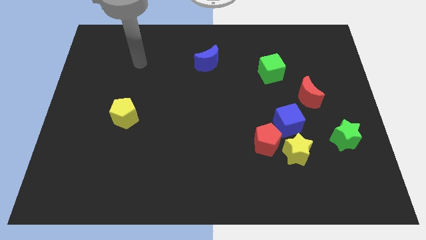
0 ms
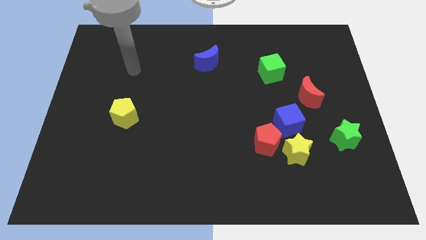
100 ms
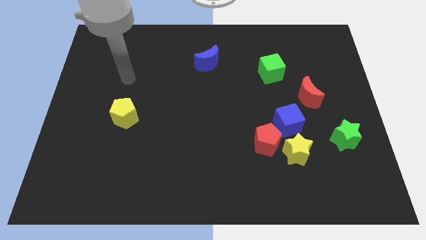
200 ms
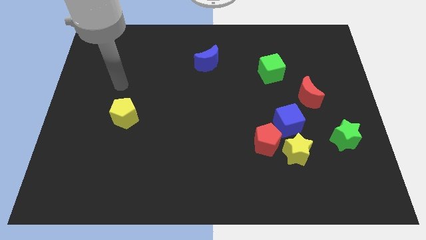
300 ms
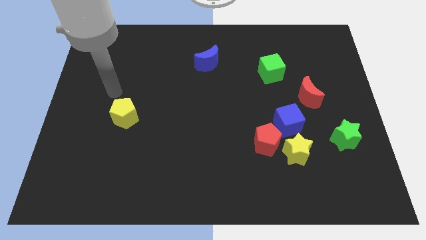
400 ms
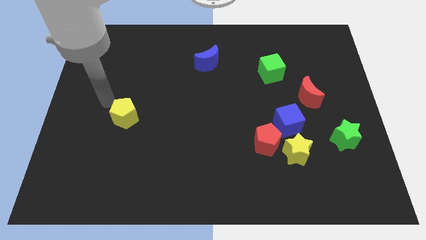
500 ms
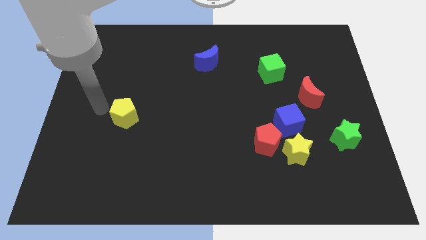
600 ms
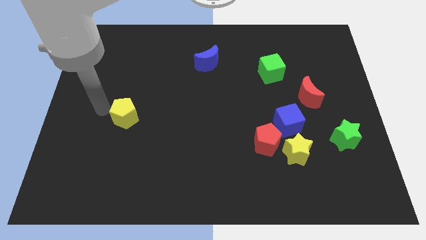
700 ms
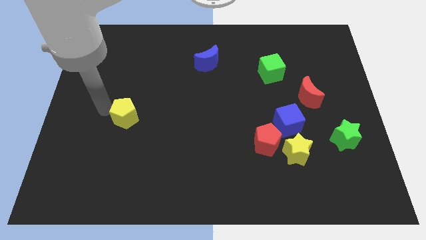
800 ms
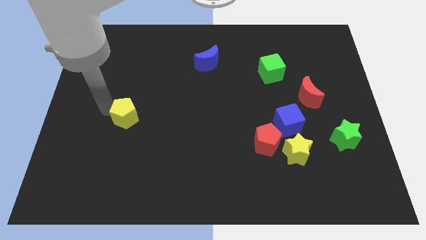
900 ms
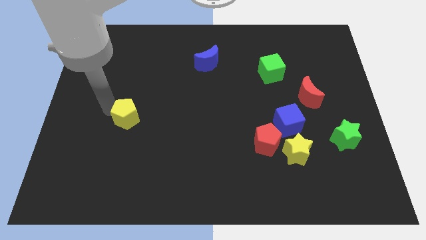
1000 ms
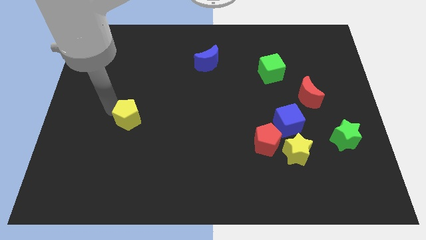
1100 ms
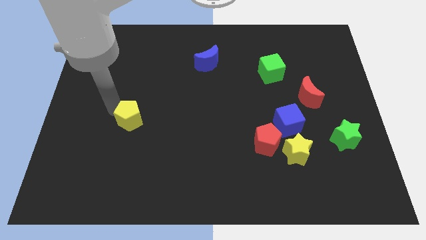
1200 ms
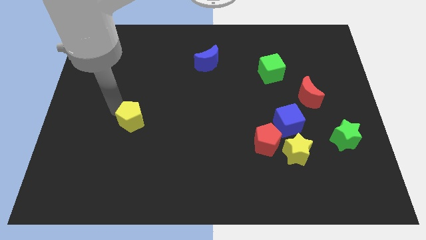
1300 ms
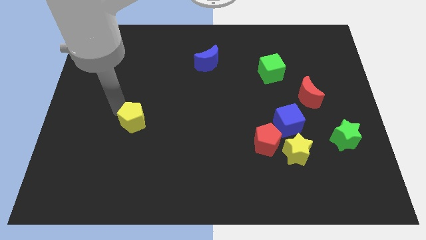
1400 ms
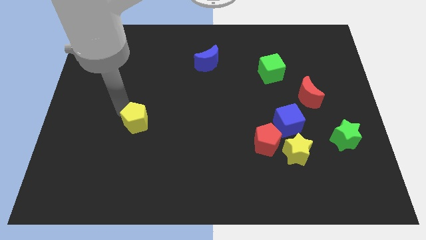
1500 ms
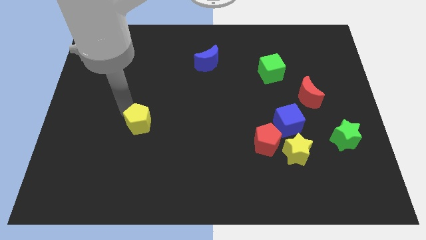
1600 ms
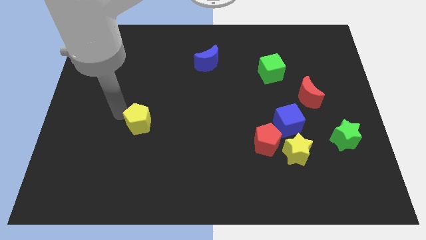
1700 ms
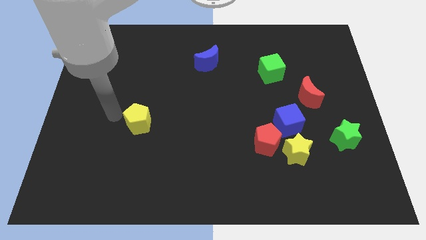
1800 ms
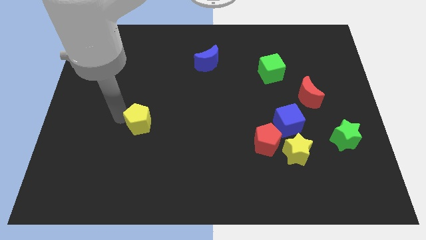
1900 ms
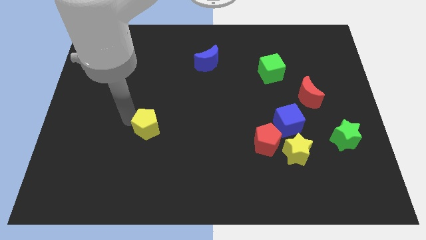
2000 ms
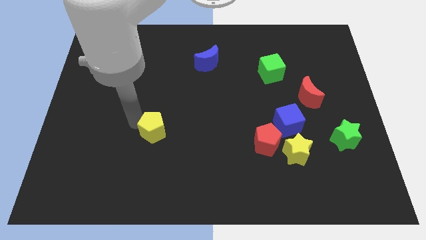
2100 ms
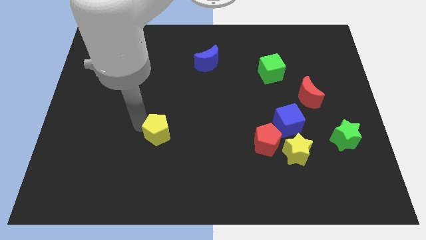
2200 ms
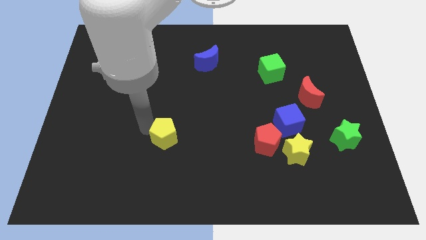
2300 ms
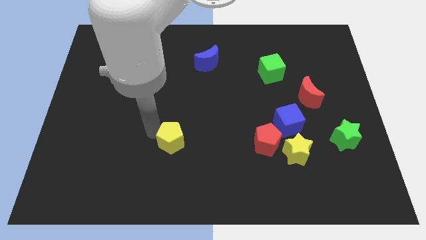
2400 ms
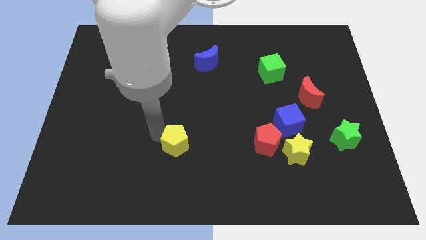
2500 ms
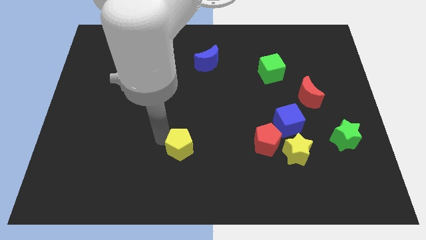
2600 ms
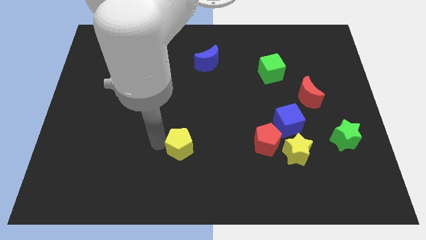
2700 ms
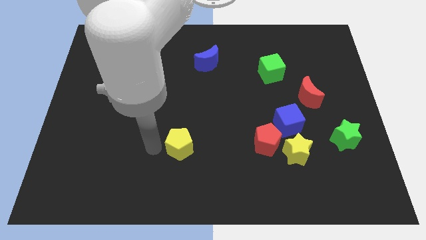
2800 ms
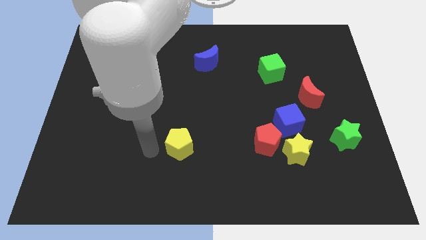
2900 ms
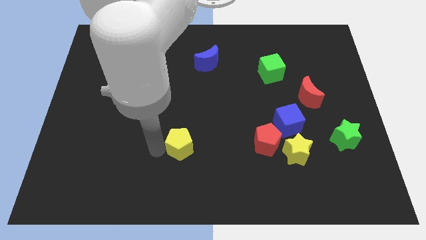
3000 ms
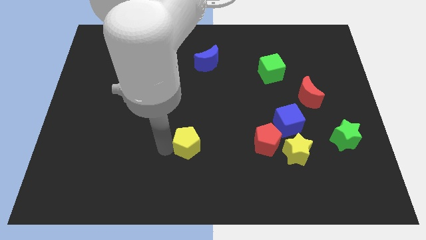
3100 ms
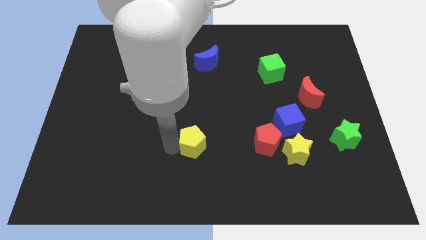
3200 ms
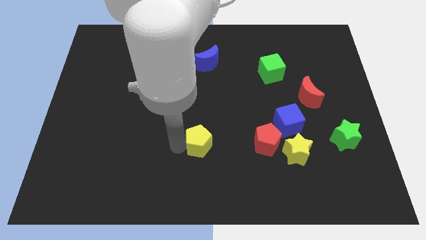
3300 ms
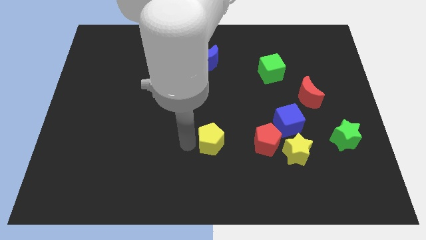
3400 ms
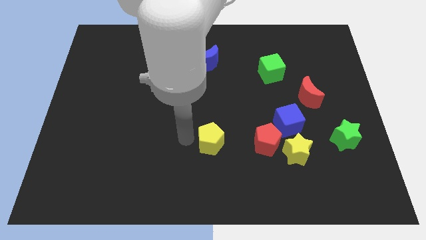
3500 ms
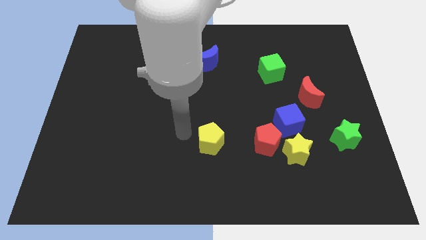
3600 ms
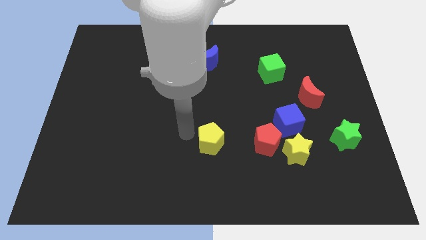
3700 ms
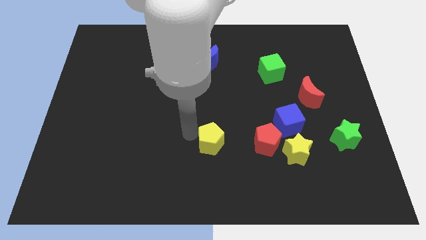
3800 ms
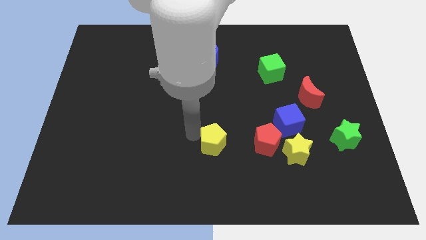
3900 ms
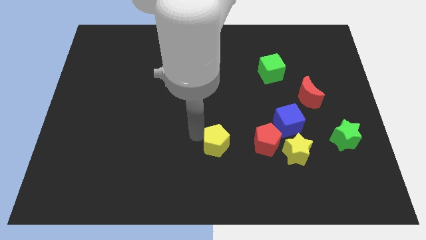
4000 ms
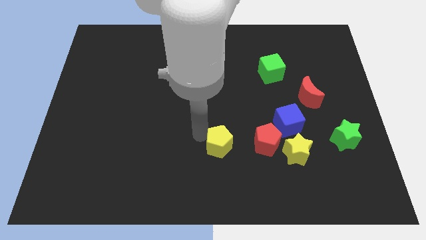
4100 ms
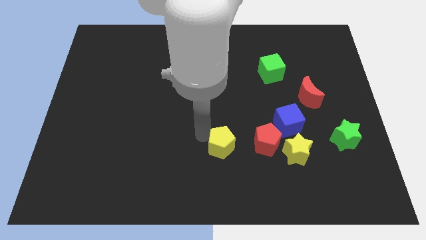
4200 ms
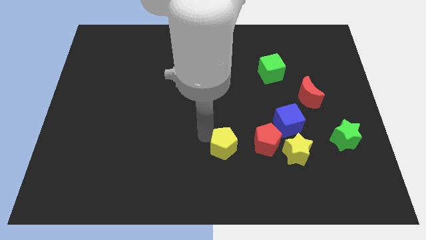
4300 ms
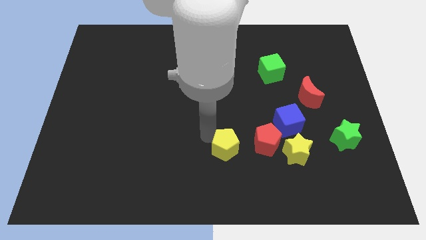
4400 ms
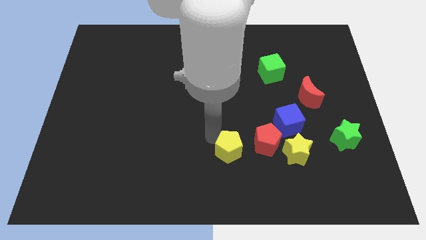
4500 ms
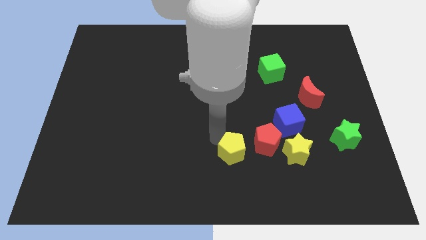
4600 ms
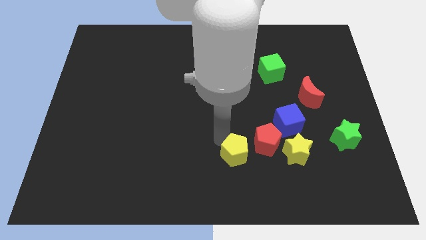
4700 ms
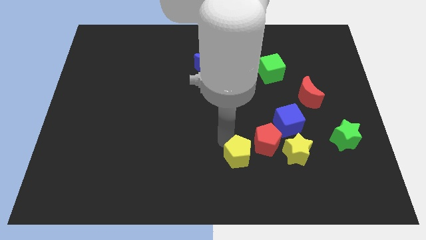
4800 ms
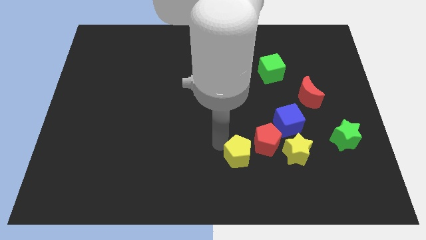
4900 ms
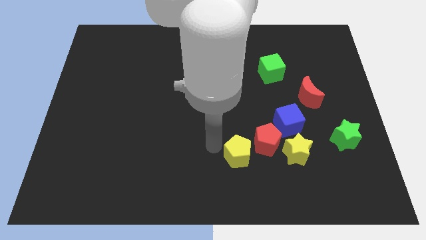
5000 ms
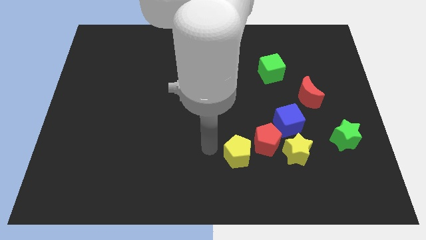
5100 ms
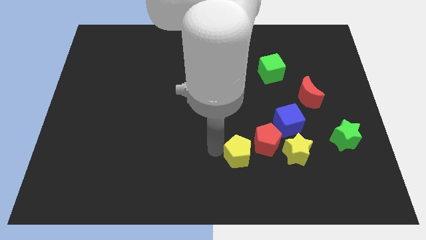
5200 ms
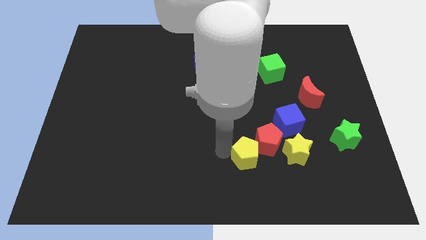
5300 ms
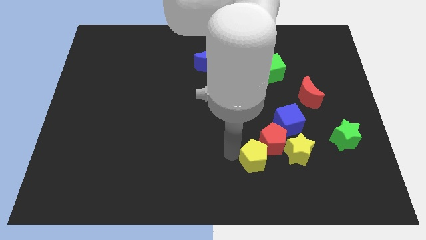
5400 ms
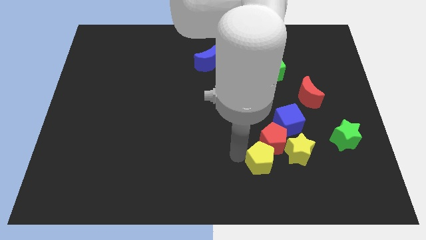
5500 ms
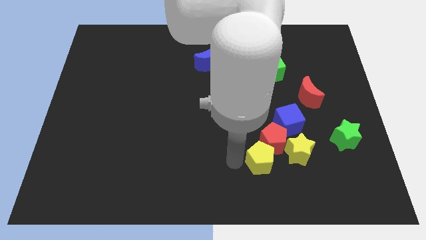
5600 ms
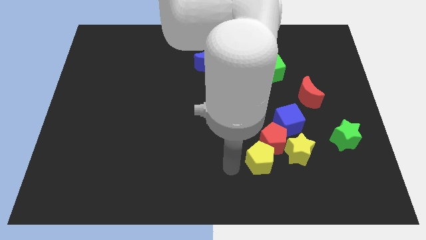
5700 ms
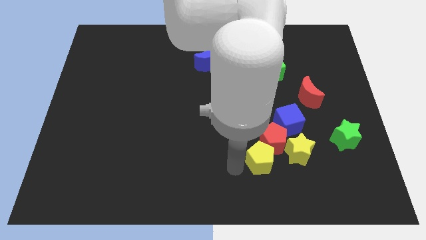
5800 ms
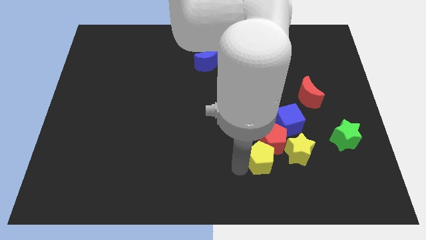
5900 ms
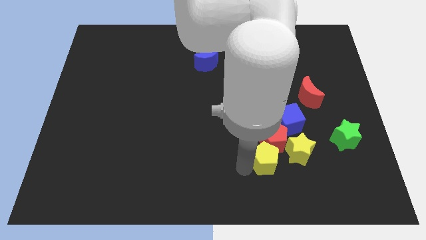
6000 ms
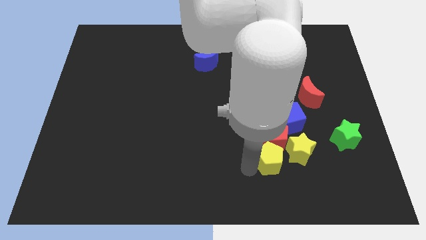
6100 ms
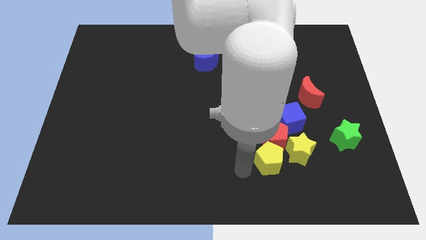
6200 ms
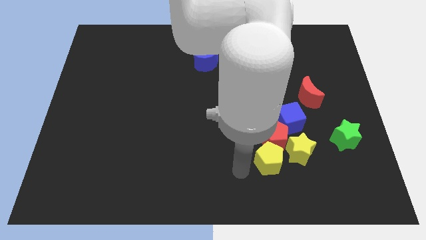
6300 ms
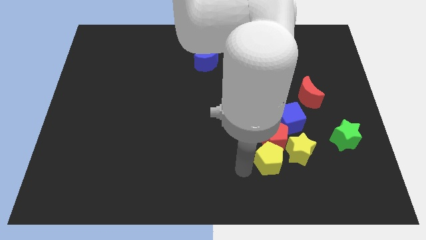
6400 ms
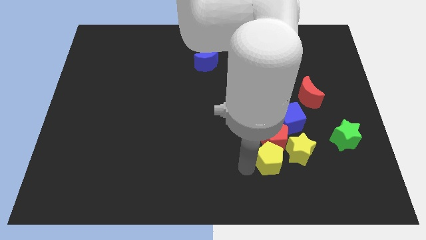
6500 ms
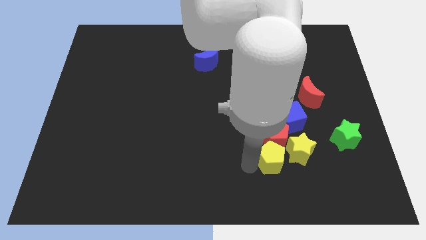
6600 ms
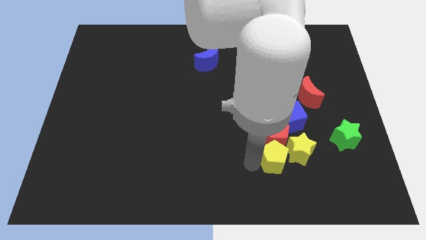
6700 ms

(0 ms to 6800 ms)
move the yellow pentagon to the yellow star
